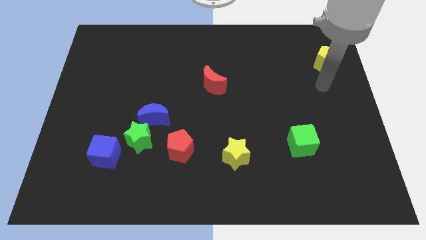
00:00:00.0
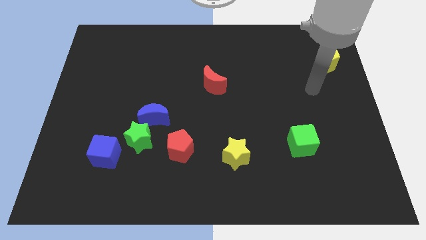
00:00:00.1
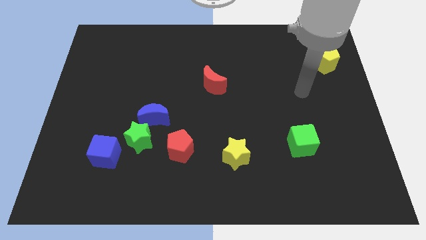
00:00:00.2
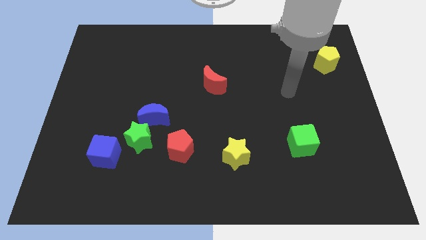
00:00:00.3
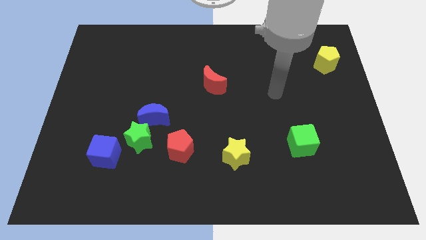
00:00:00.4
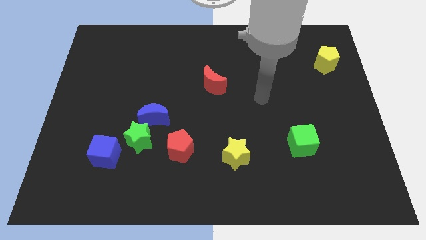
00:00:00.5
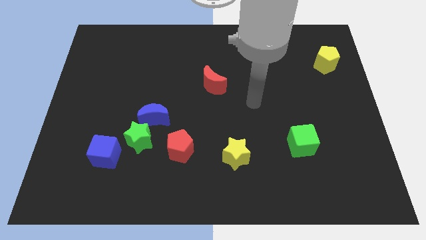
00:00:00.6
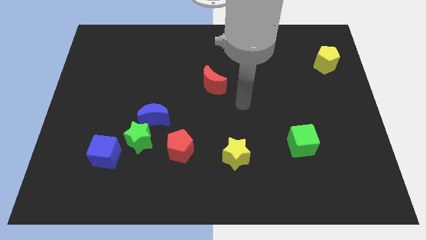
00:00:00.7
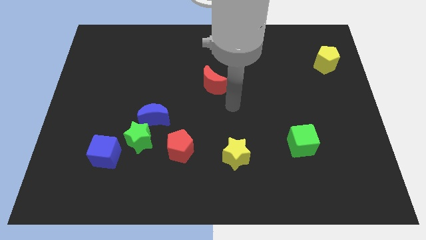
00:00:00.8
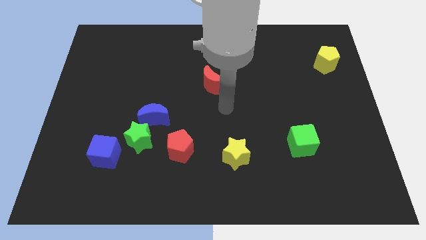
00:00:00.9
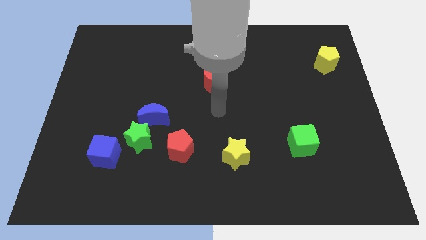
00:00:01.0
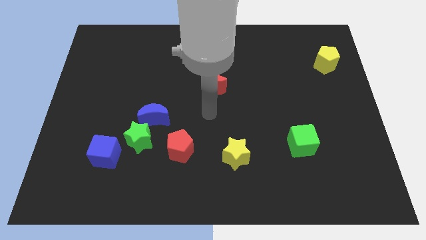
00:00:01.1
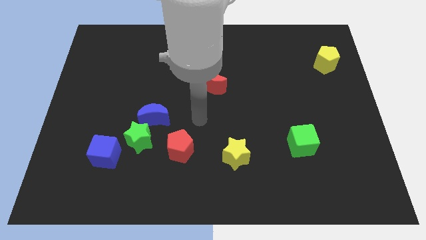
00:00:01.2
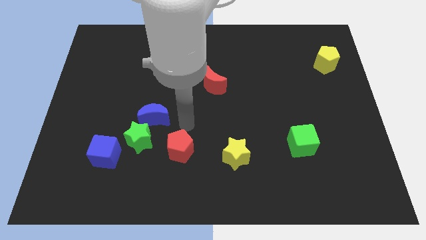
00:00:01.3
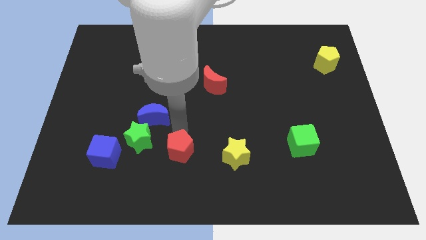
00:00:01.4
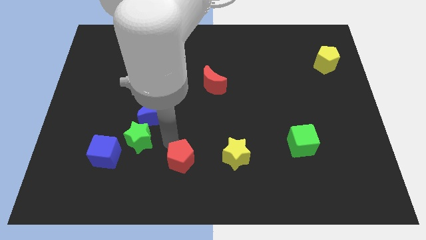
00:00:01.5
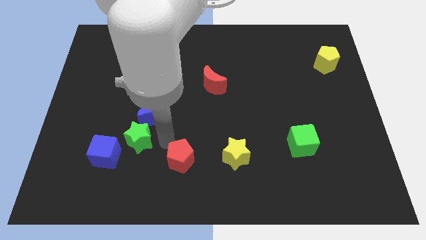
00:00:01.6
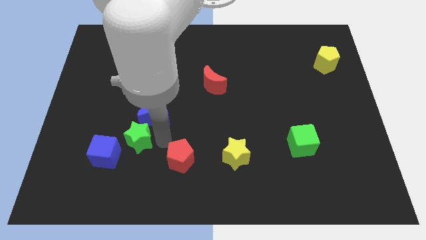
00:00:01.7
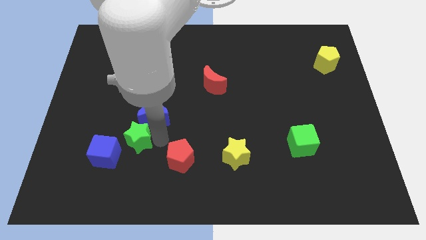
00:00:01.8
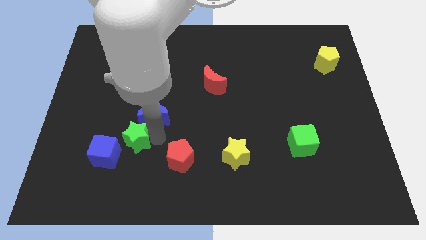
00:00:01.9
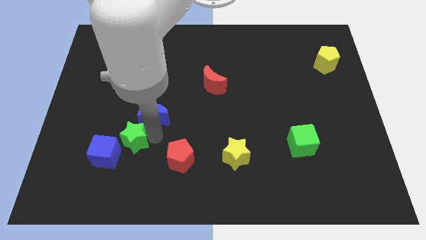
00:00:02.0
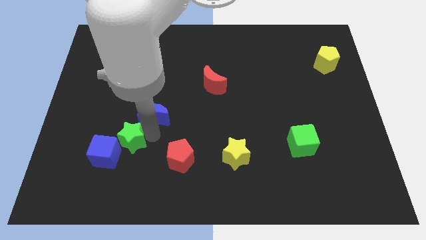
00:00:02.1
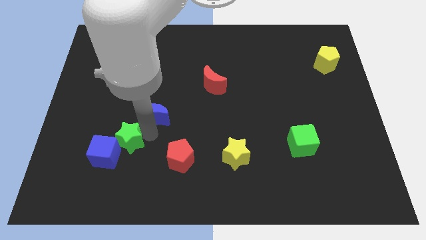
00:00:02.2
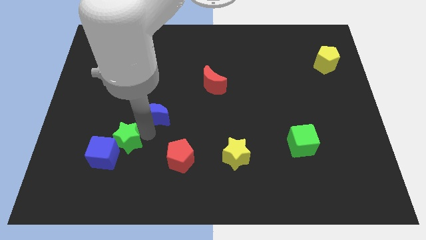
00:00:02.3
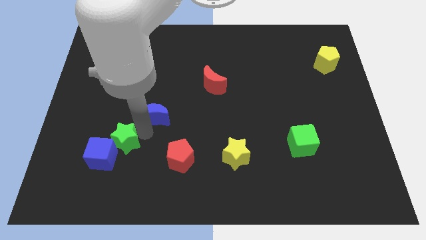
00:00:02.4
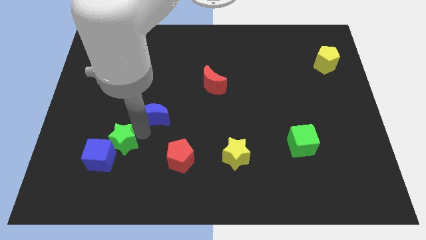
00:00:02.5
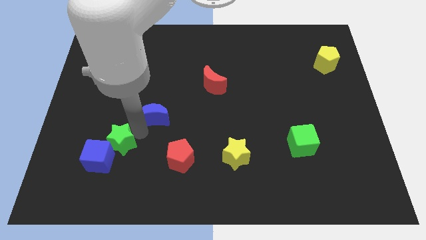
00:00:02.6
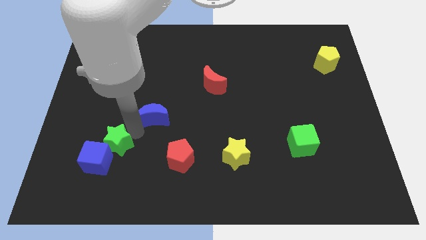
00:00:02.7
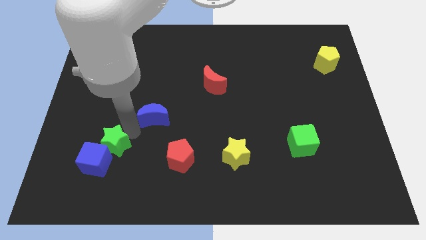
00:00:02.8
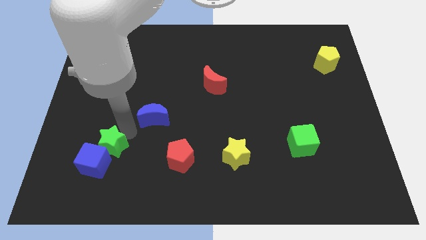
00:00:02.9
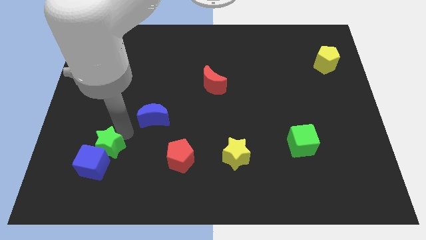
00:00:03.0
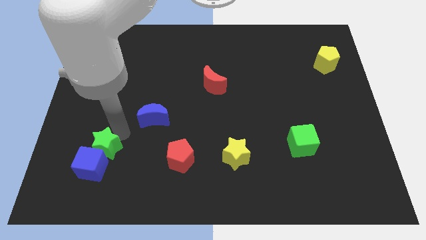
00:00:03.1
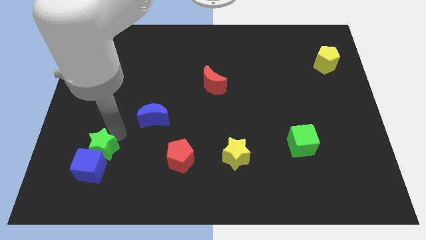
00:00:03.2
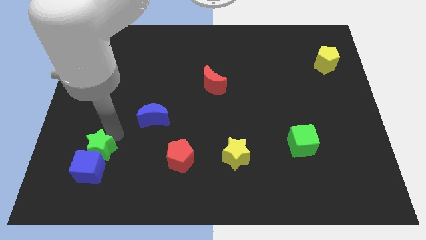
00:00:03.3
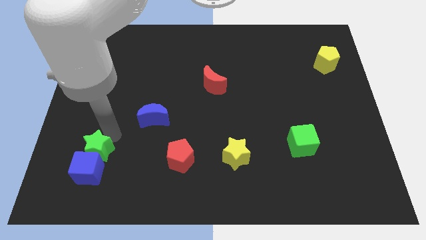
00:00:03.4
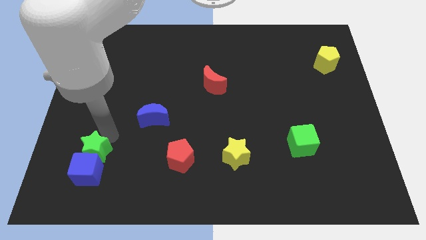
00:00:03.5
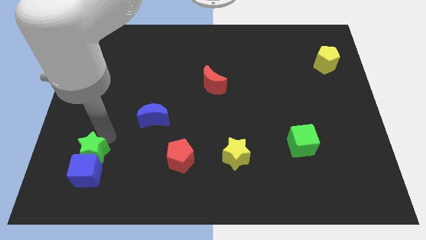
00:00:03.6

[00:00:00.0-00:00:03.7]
separate the green star from the blue moon, blue cube, and red pentagon

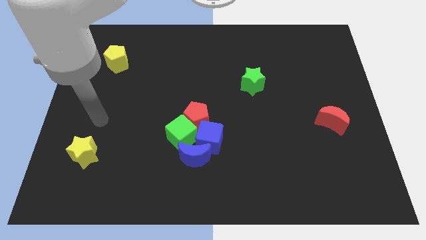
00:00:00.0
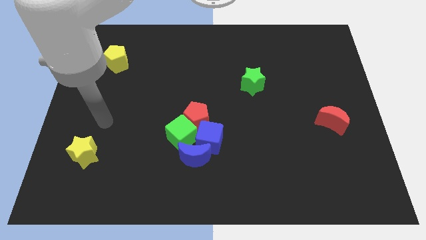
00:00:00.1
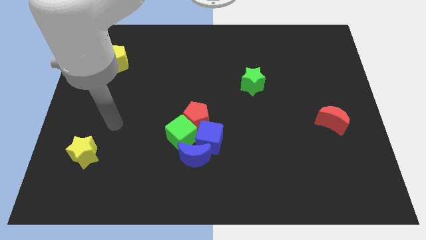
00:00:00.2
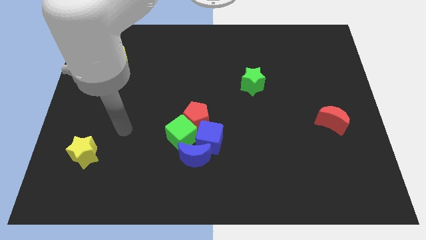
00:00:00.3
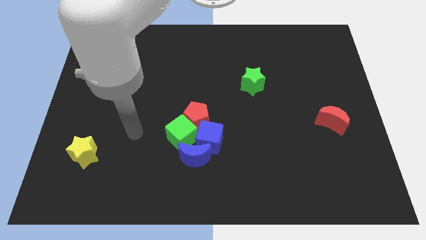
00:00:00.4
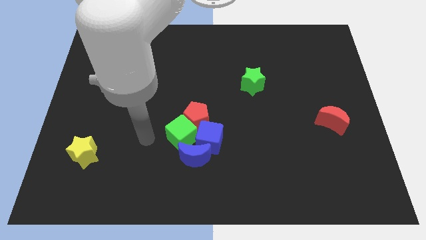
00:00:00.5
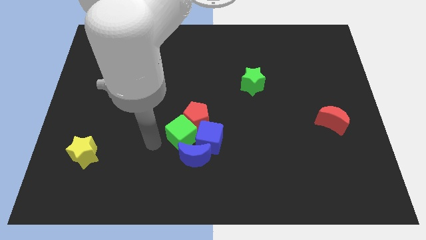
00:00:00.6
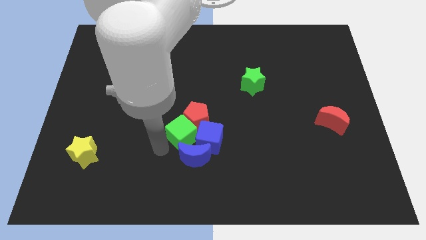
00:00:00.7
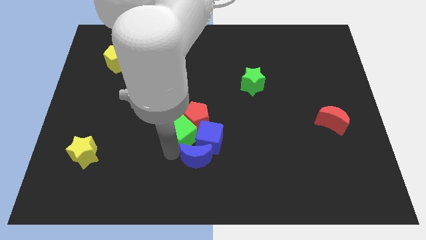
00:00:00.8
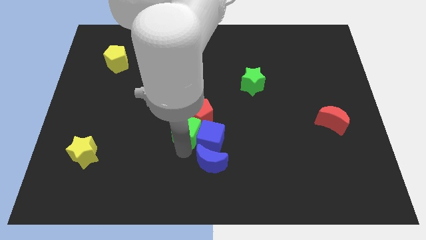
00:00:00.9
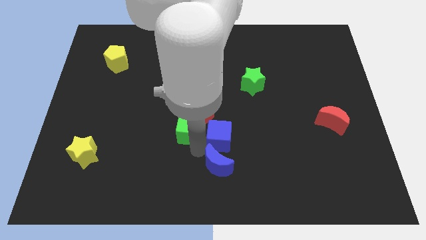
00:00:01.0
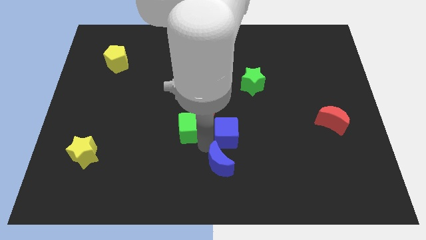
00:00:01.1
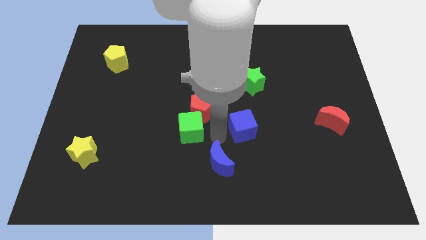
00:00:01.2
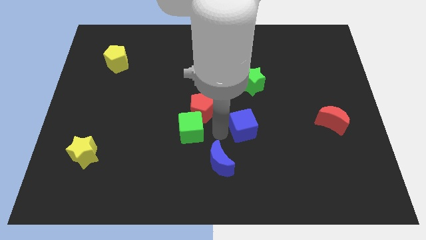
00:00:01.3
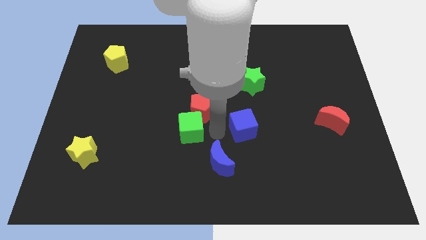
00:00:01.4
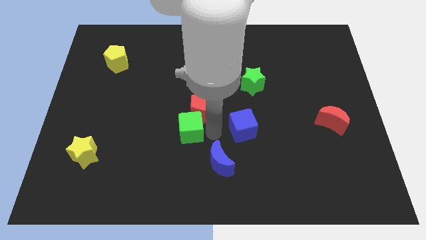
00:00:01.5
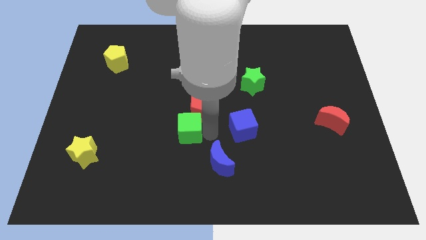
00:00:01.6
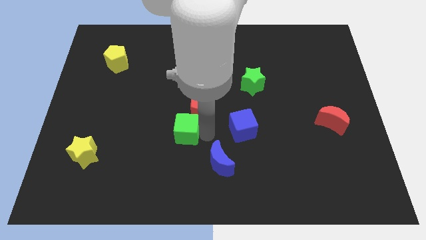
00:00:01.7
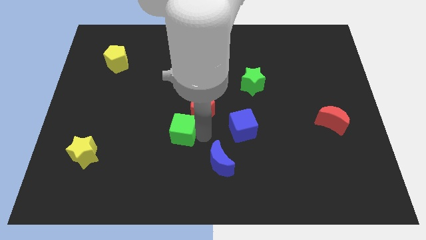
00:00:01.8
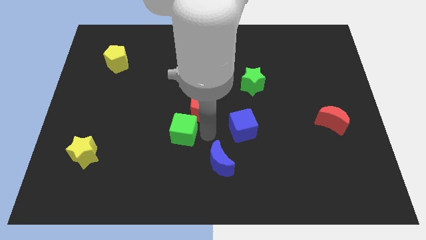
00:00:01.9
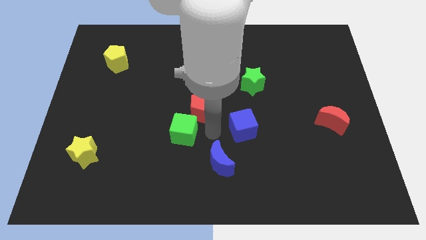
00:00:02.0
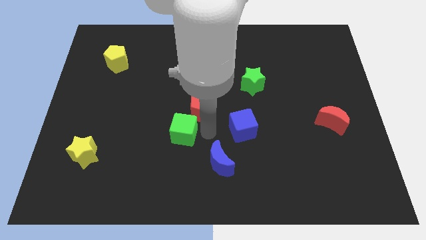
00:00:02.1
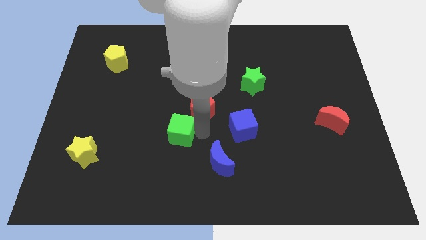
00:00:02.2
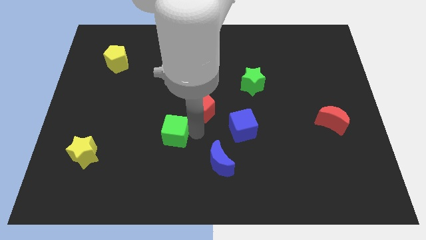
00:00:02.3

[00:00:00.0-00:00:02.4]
separate the green cube from the group

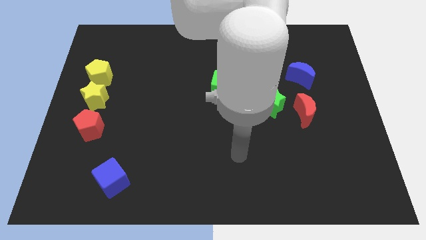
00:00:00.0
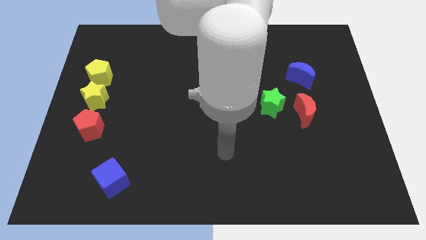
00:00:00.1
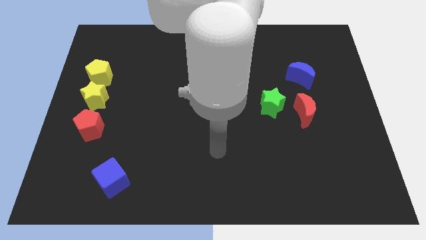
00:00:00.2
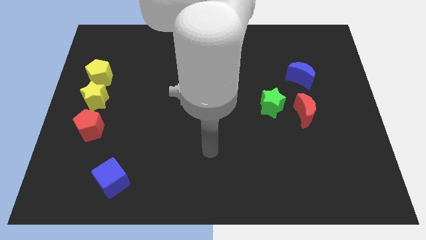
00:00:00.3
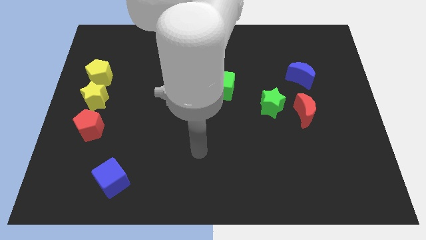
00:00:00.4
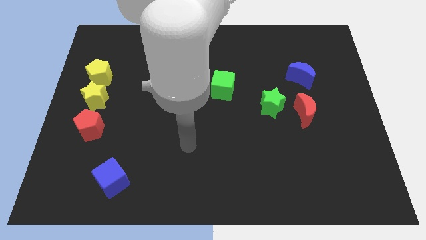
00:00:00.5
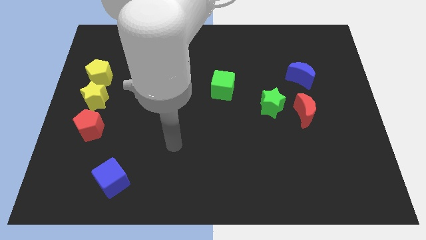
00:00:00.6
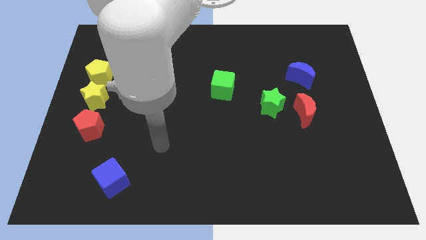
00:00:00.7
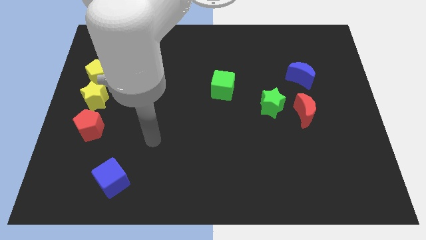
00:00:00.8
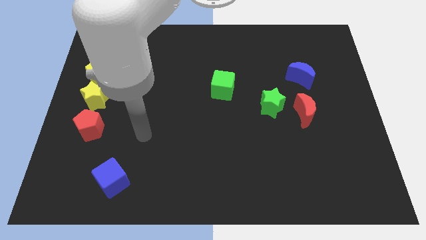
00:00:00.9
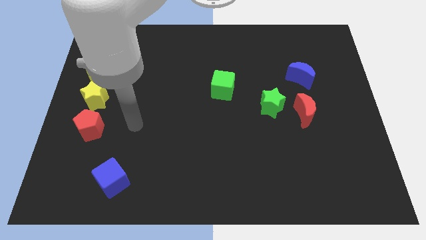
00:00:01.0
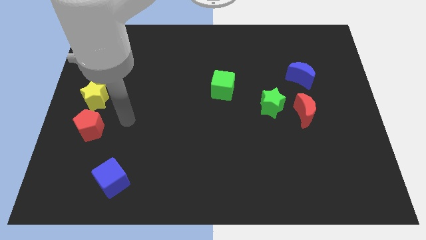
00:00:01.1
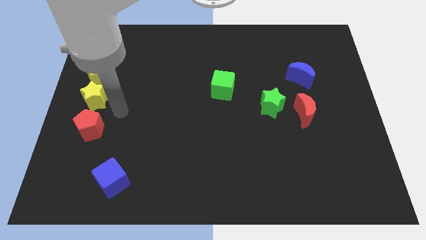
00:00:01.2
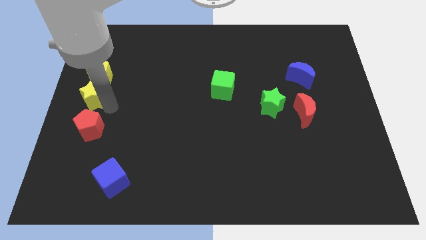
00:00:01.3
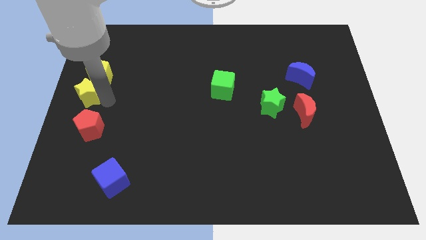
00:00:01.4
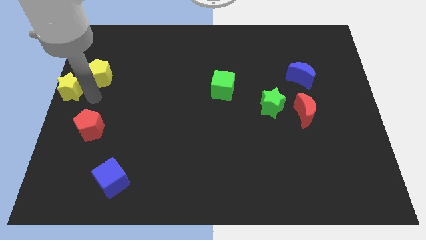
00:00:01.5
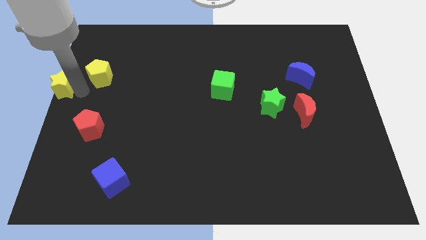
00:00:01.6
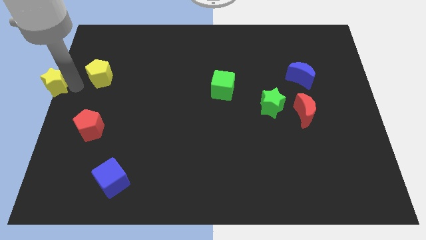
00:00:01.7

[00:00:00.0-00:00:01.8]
separate the yellow pentagon from the yellow star

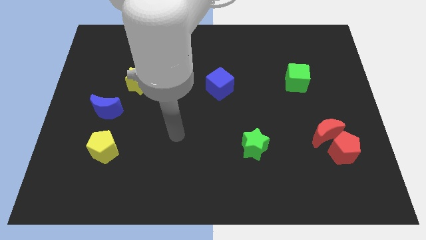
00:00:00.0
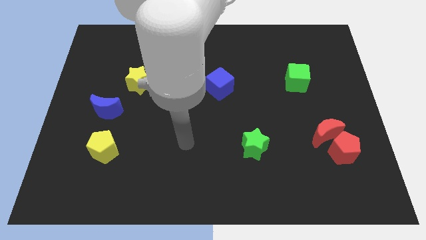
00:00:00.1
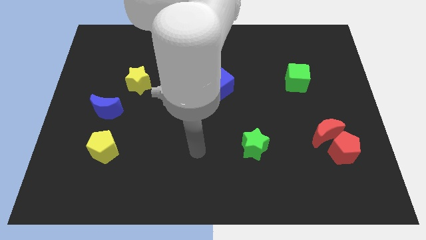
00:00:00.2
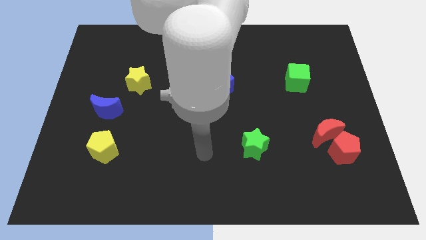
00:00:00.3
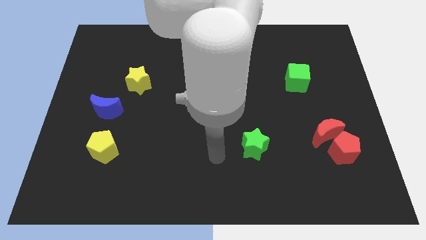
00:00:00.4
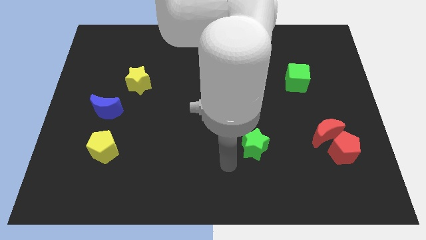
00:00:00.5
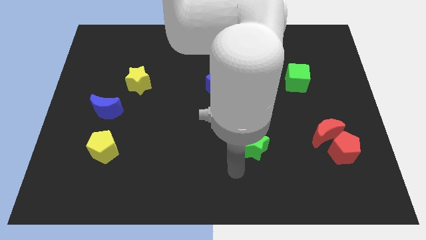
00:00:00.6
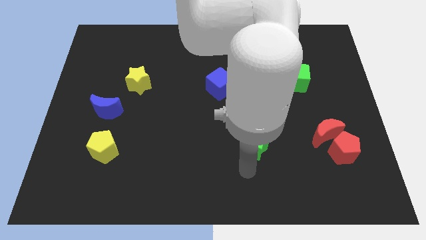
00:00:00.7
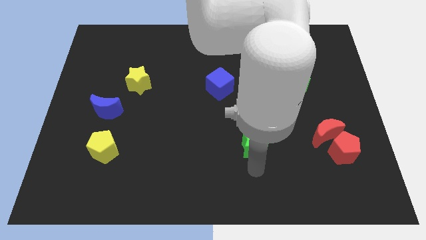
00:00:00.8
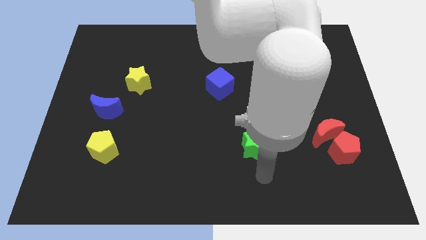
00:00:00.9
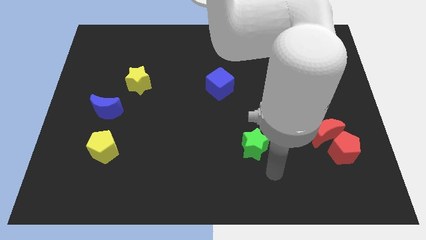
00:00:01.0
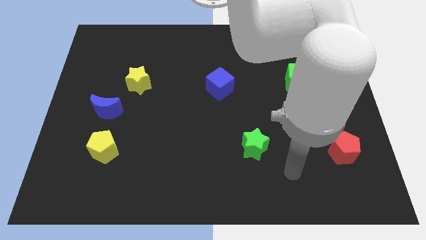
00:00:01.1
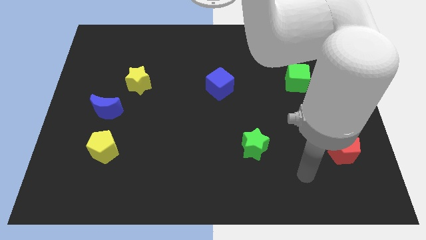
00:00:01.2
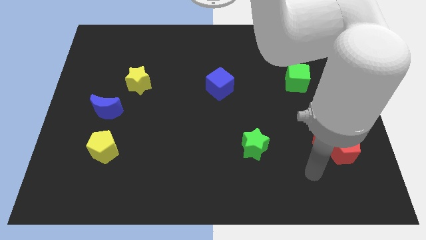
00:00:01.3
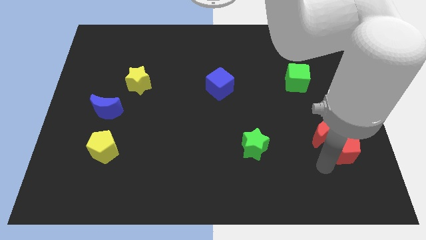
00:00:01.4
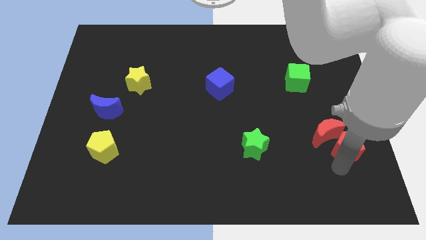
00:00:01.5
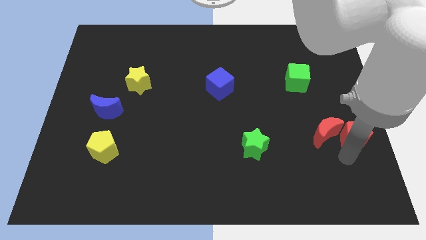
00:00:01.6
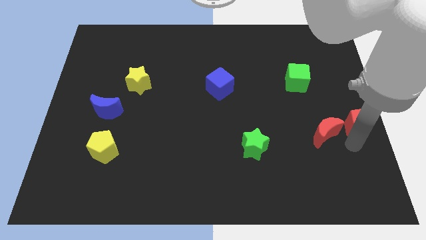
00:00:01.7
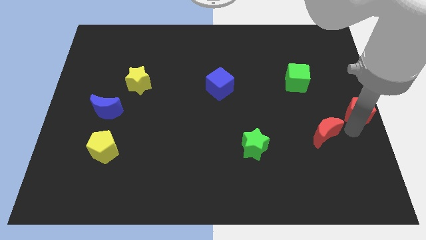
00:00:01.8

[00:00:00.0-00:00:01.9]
move the red moon away from the red pentagon
